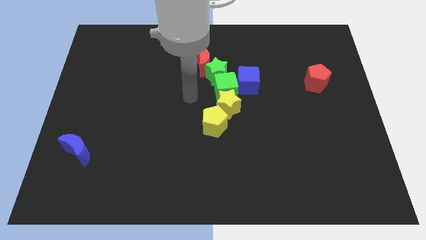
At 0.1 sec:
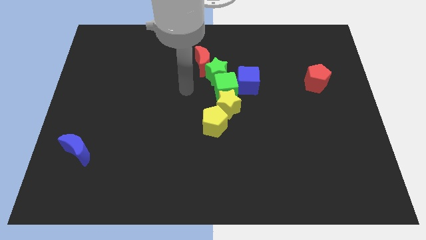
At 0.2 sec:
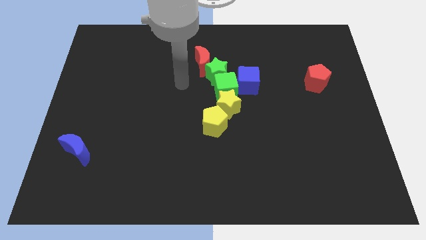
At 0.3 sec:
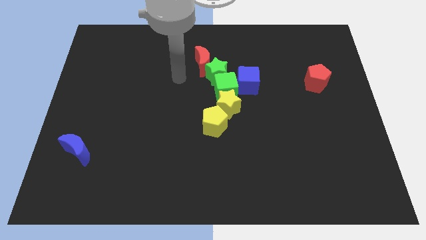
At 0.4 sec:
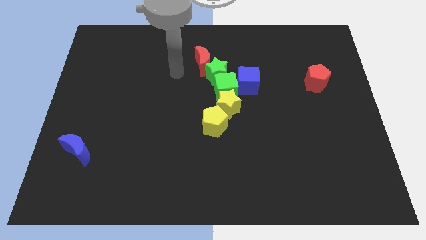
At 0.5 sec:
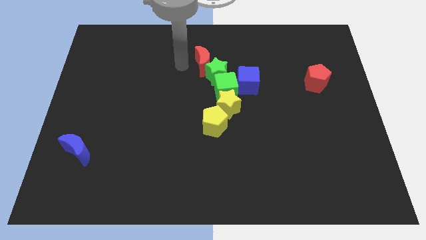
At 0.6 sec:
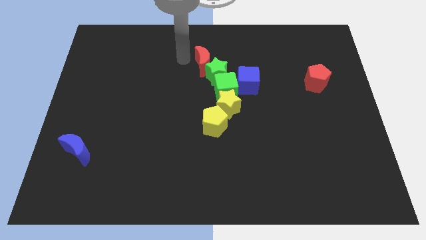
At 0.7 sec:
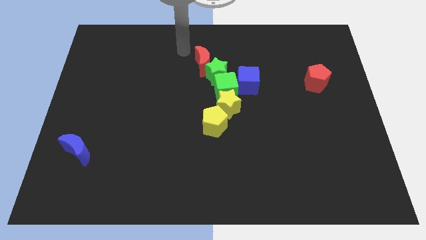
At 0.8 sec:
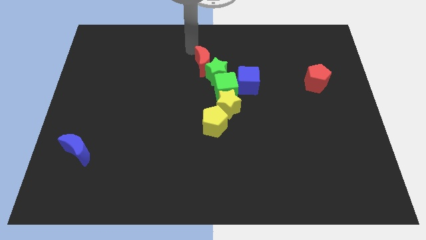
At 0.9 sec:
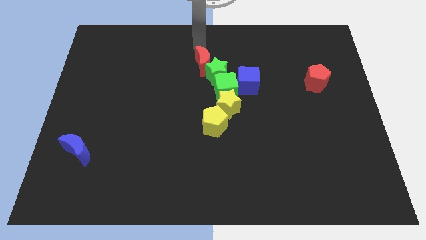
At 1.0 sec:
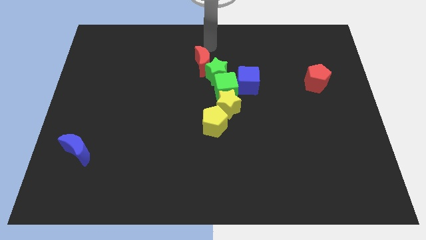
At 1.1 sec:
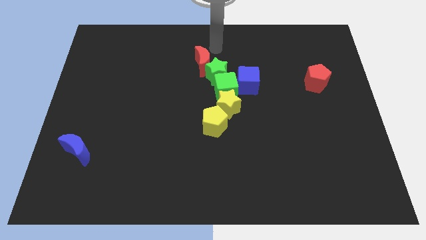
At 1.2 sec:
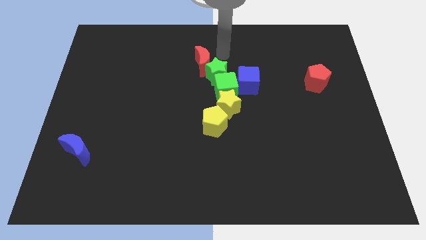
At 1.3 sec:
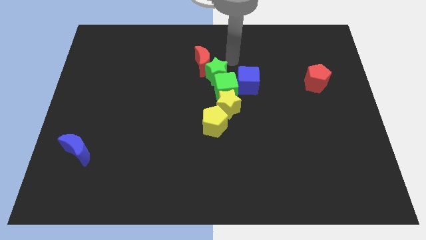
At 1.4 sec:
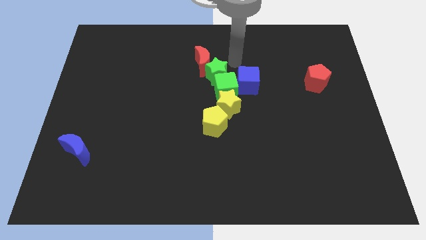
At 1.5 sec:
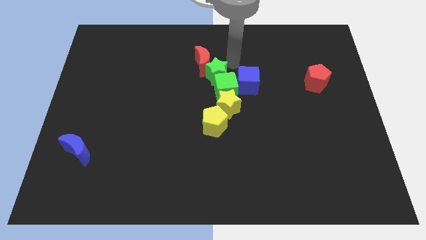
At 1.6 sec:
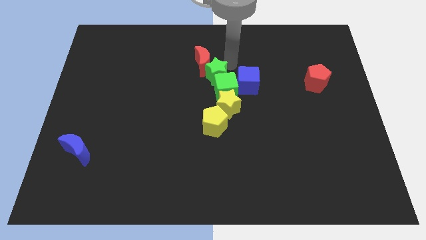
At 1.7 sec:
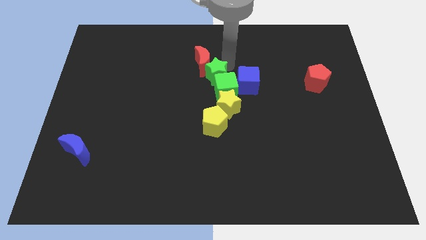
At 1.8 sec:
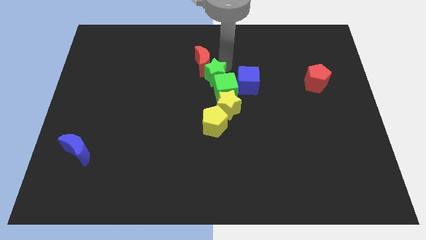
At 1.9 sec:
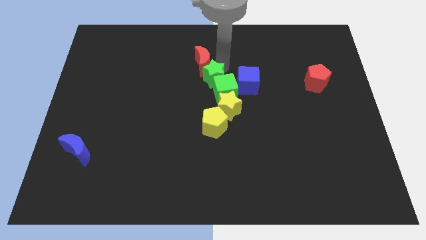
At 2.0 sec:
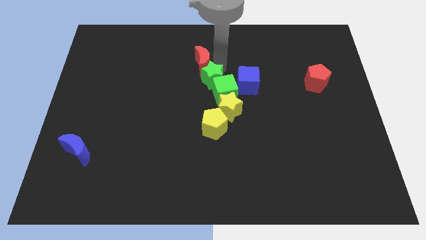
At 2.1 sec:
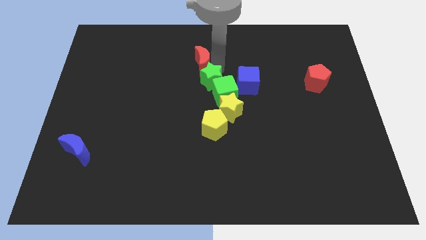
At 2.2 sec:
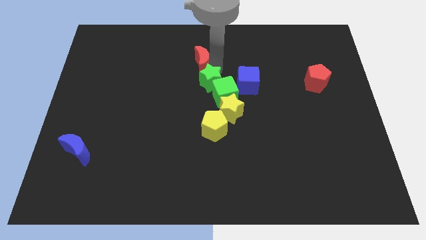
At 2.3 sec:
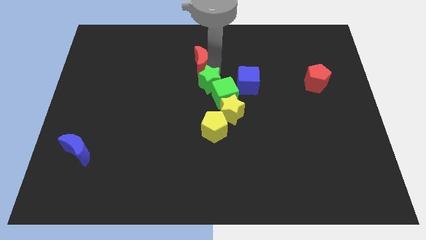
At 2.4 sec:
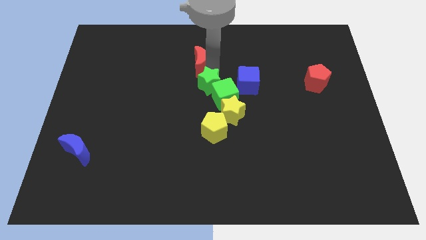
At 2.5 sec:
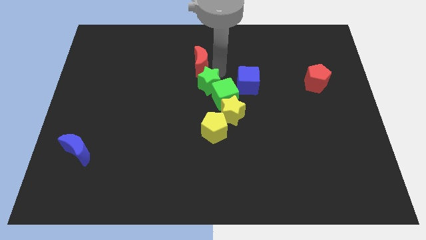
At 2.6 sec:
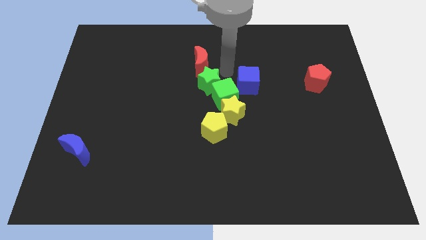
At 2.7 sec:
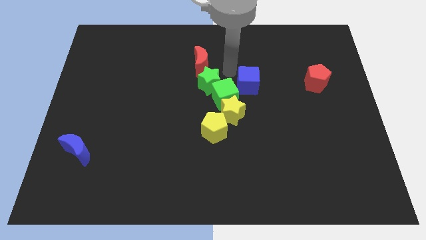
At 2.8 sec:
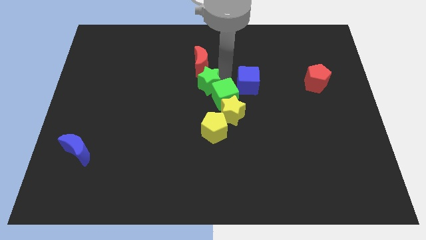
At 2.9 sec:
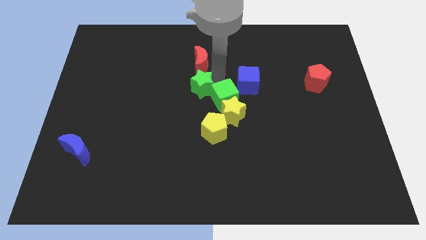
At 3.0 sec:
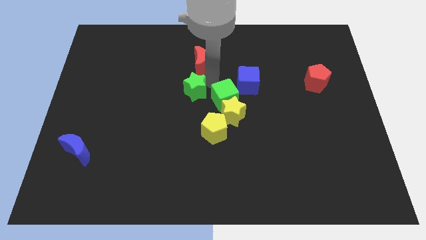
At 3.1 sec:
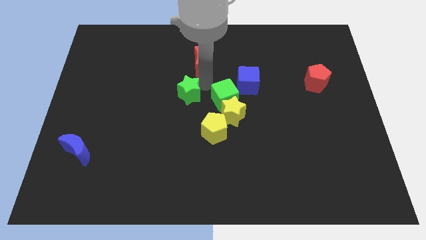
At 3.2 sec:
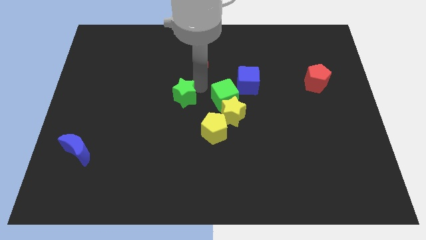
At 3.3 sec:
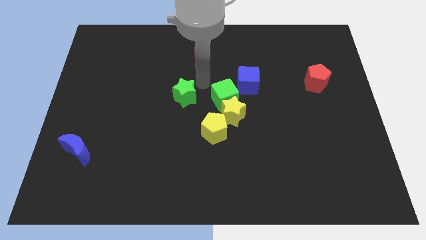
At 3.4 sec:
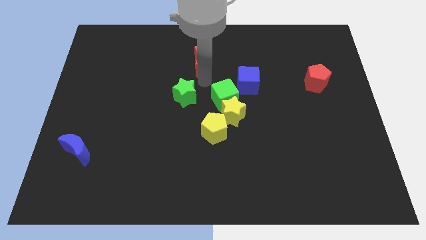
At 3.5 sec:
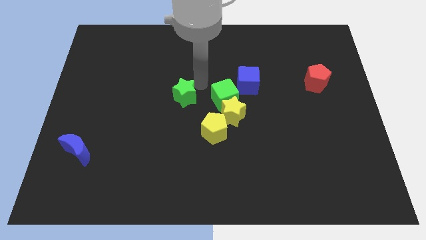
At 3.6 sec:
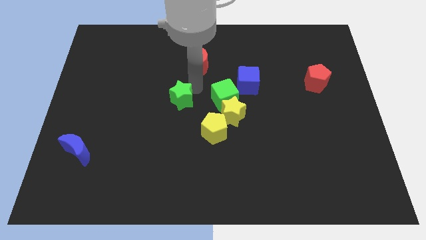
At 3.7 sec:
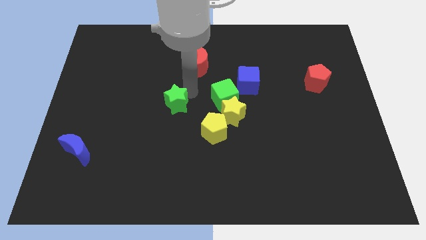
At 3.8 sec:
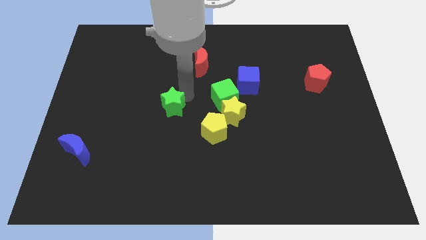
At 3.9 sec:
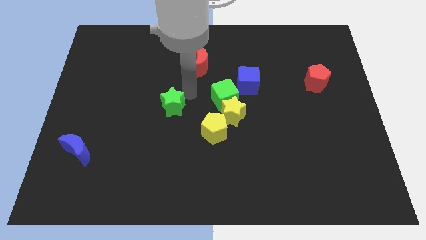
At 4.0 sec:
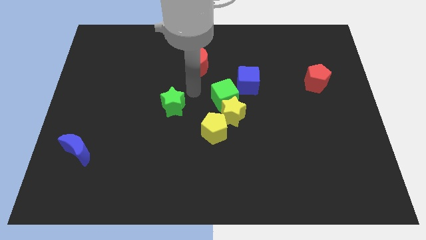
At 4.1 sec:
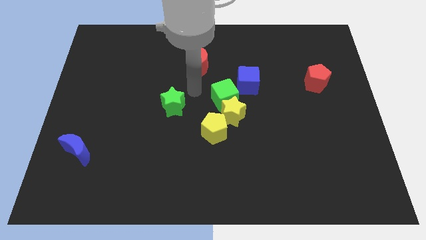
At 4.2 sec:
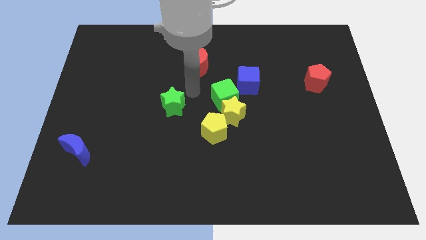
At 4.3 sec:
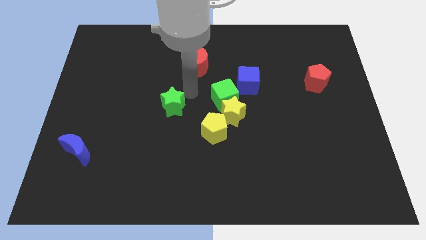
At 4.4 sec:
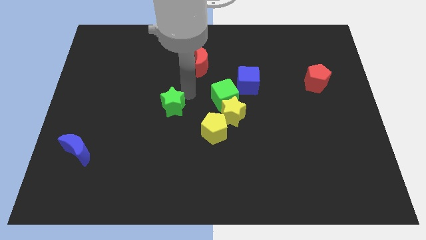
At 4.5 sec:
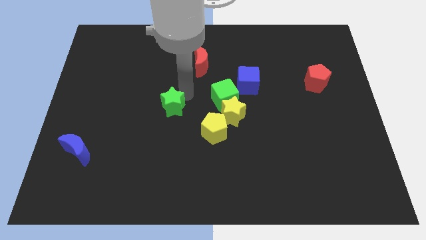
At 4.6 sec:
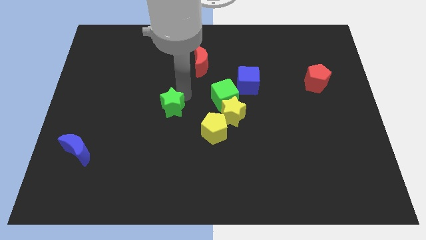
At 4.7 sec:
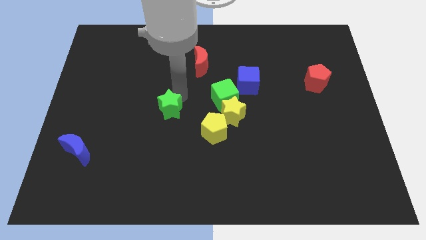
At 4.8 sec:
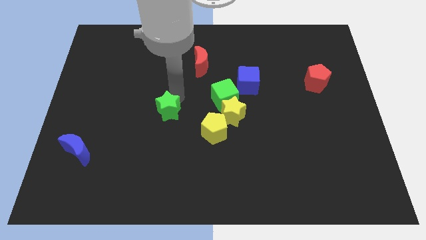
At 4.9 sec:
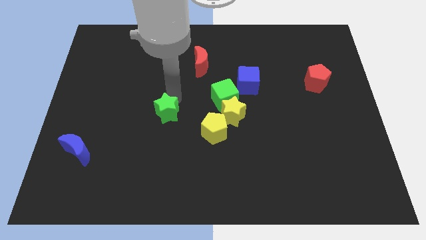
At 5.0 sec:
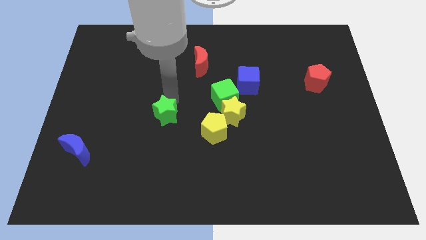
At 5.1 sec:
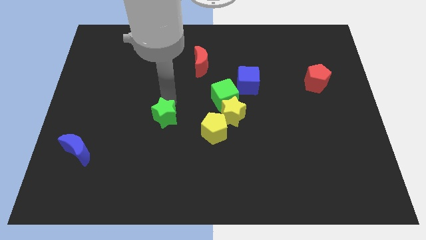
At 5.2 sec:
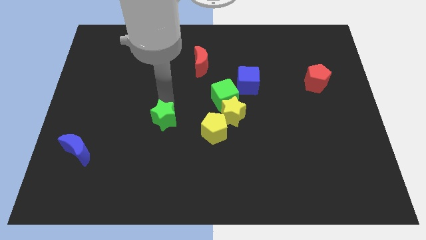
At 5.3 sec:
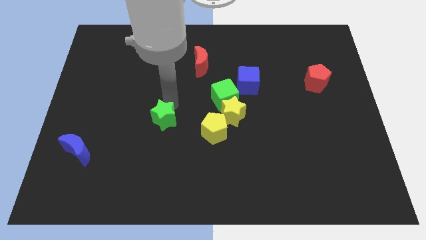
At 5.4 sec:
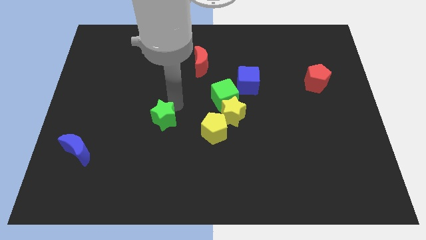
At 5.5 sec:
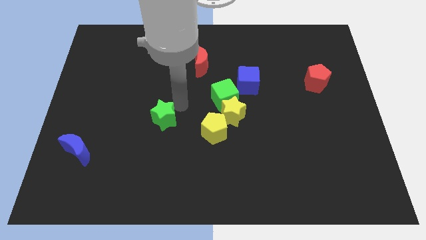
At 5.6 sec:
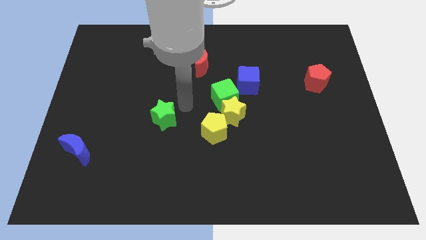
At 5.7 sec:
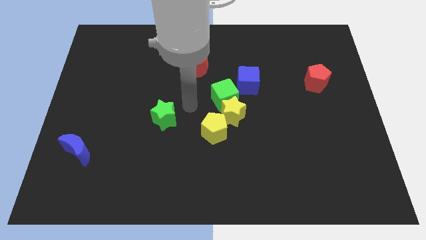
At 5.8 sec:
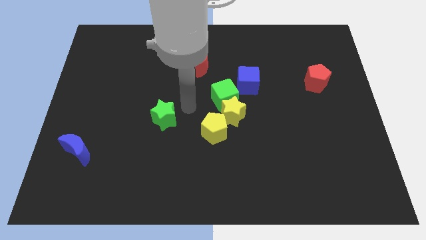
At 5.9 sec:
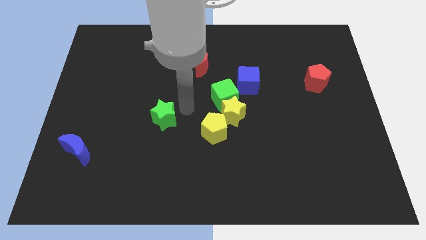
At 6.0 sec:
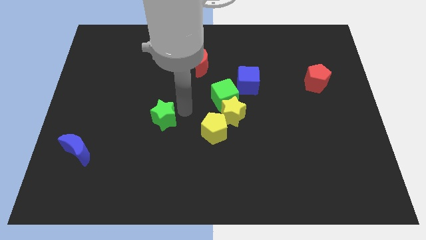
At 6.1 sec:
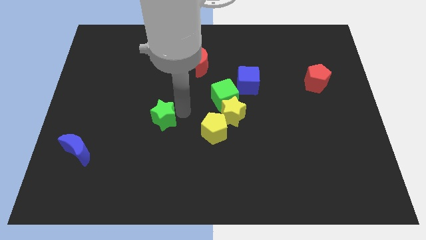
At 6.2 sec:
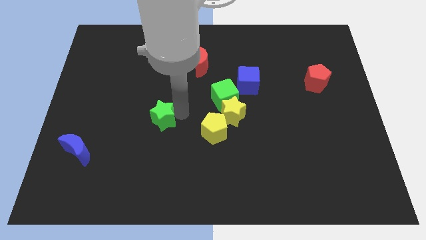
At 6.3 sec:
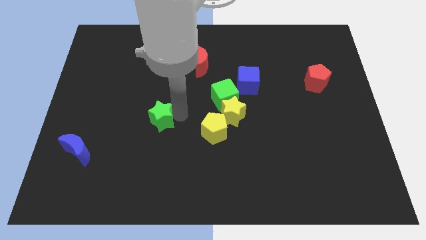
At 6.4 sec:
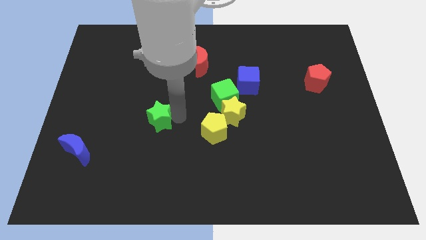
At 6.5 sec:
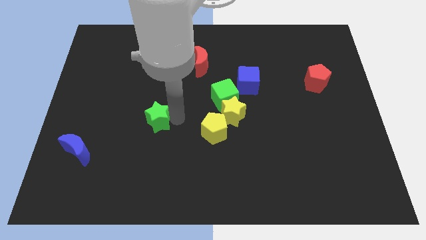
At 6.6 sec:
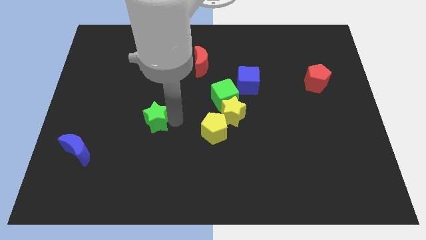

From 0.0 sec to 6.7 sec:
push the green star diagonally down and to the left

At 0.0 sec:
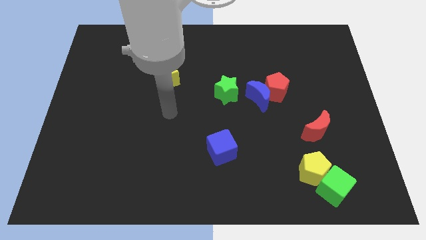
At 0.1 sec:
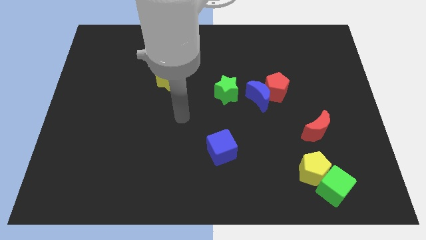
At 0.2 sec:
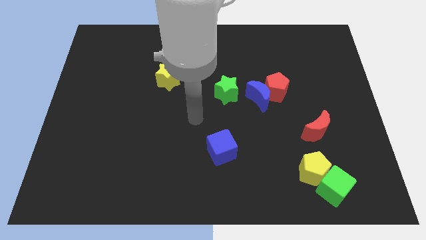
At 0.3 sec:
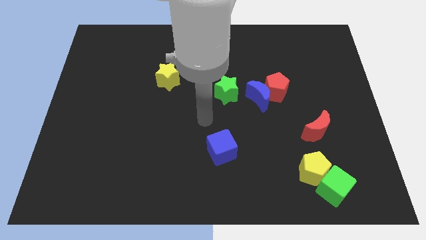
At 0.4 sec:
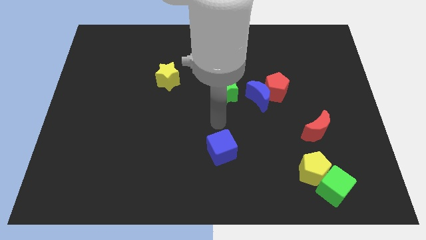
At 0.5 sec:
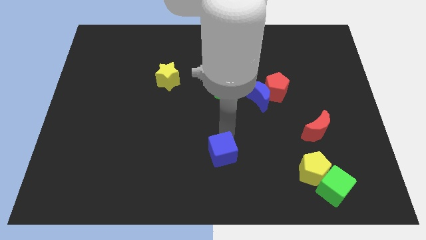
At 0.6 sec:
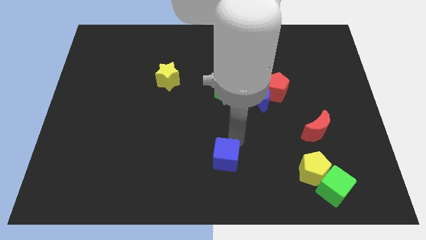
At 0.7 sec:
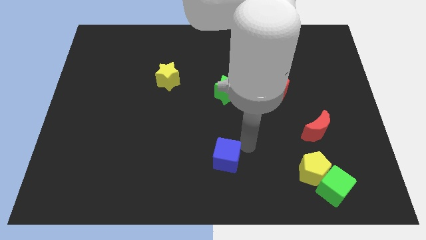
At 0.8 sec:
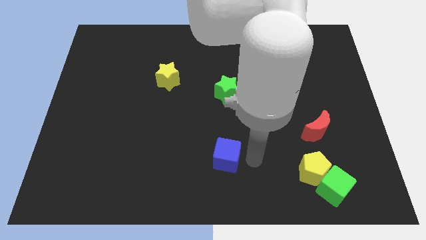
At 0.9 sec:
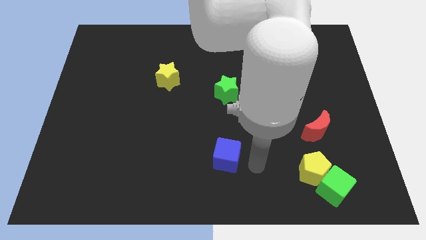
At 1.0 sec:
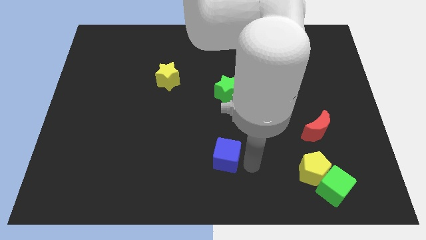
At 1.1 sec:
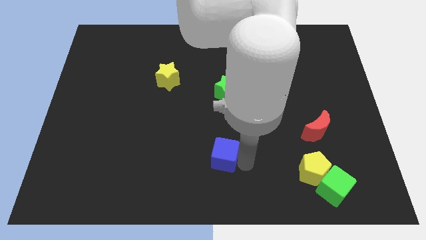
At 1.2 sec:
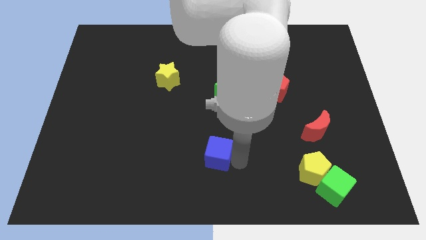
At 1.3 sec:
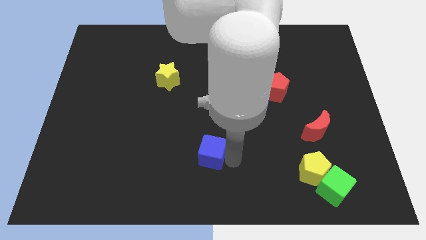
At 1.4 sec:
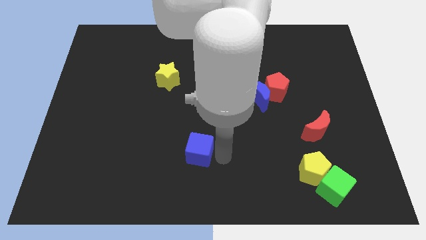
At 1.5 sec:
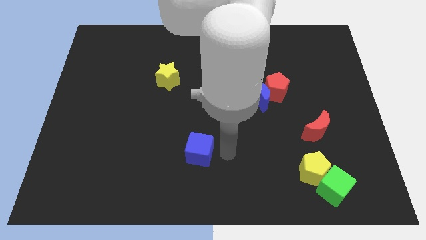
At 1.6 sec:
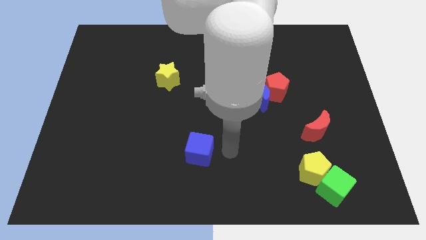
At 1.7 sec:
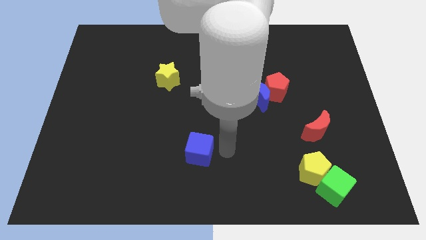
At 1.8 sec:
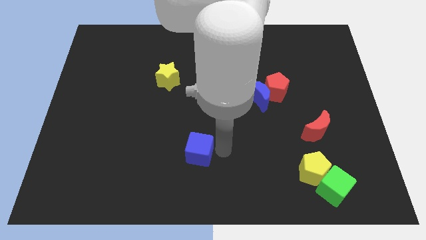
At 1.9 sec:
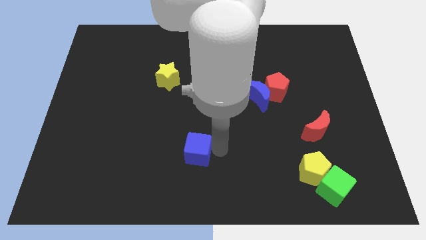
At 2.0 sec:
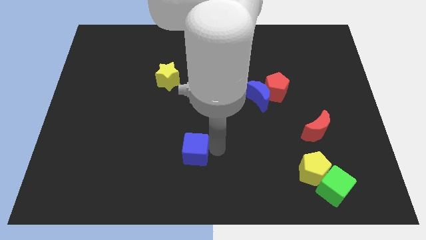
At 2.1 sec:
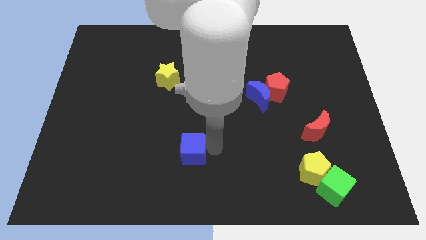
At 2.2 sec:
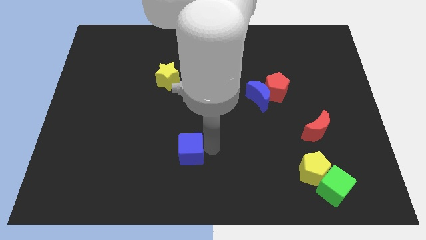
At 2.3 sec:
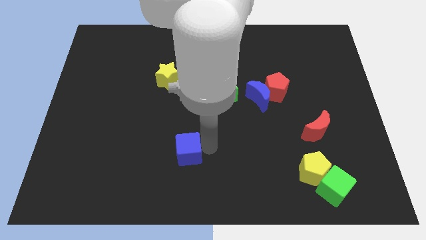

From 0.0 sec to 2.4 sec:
slide the blue cube a bit to the left
